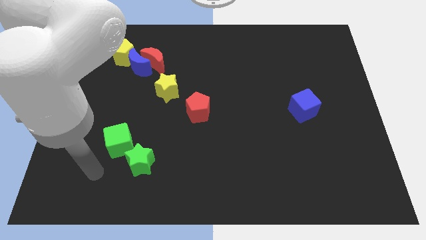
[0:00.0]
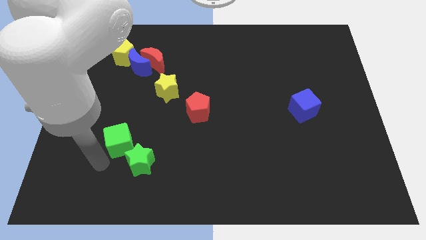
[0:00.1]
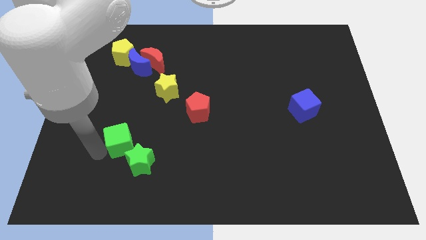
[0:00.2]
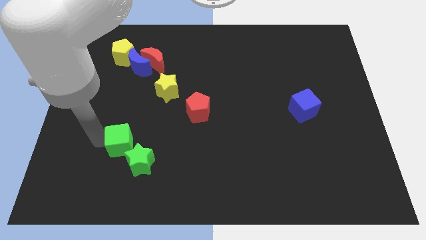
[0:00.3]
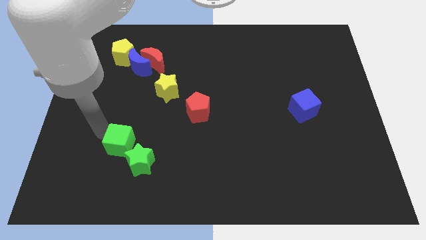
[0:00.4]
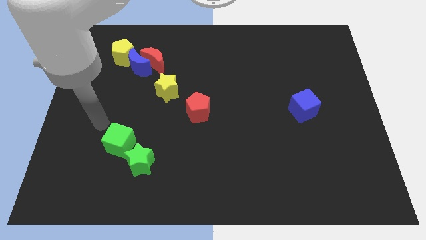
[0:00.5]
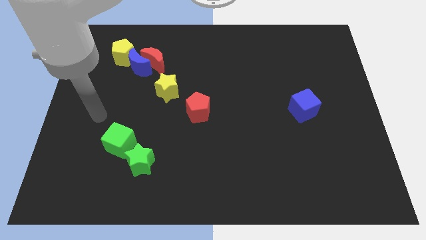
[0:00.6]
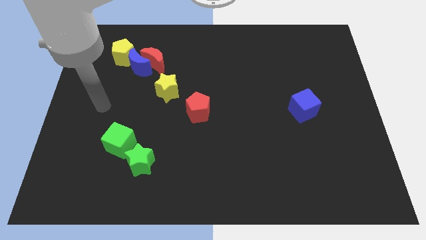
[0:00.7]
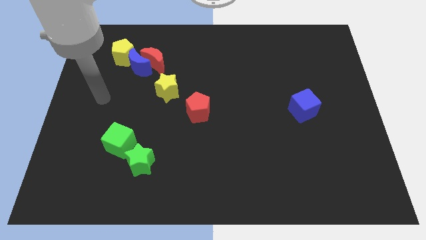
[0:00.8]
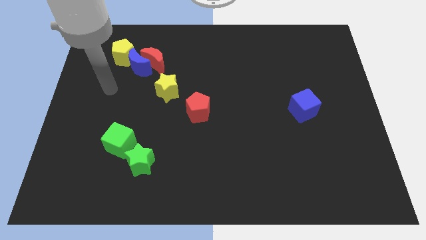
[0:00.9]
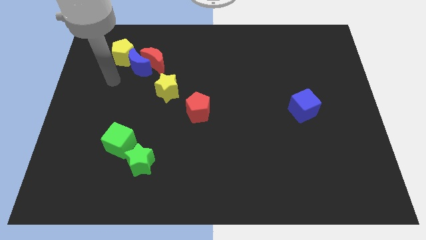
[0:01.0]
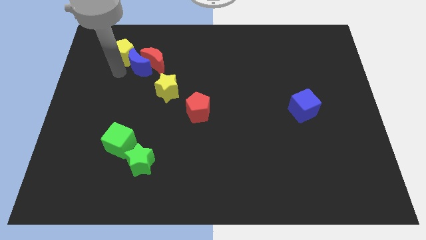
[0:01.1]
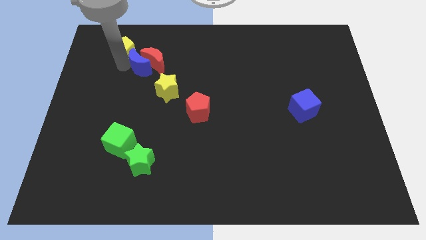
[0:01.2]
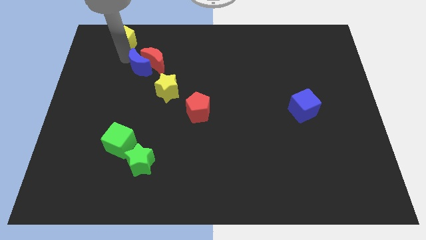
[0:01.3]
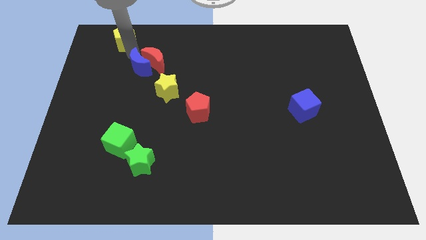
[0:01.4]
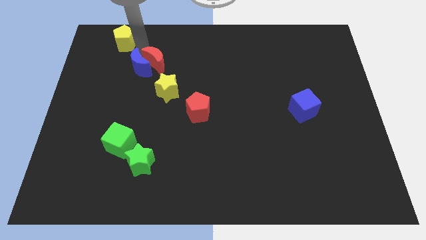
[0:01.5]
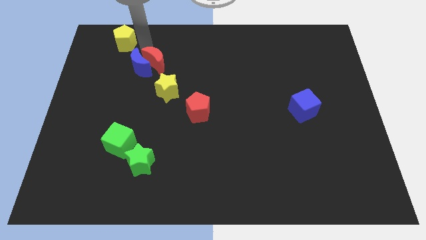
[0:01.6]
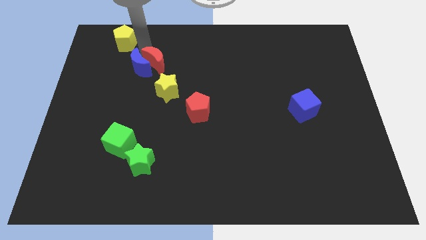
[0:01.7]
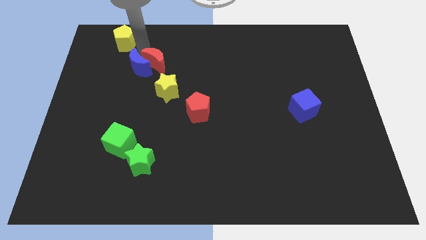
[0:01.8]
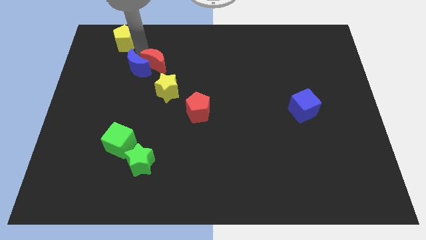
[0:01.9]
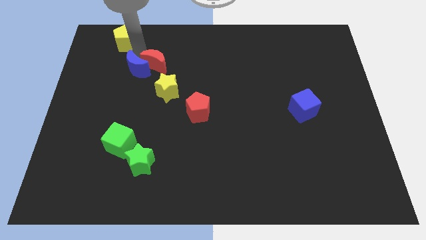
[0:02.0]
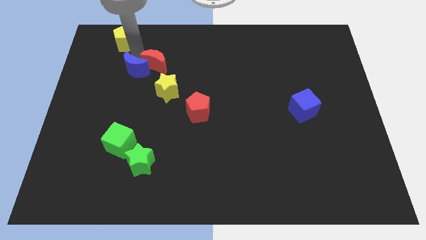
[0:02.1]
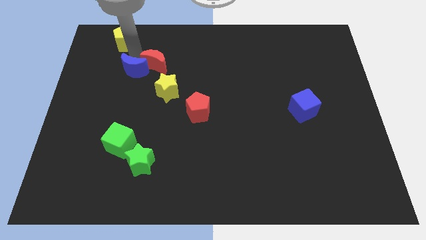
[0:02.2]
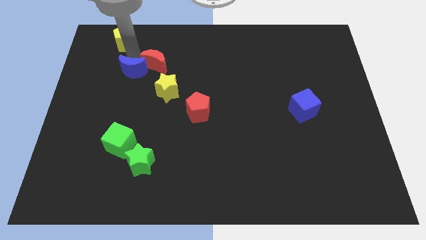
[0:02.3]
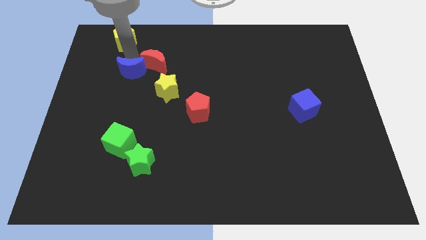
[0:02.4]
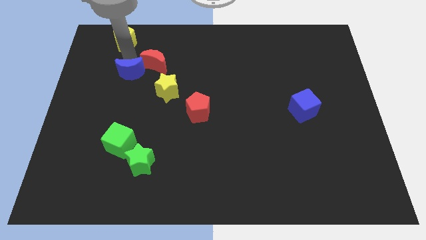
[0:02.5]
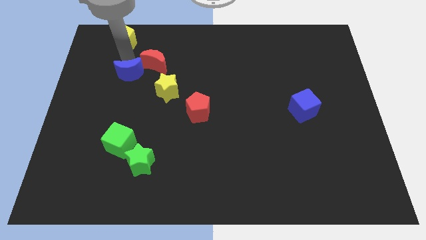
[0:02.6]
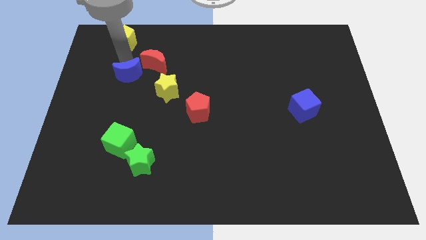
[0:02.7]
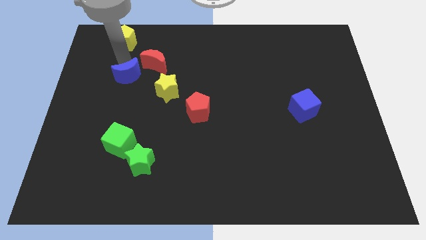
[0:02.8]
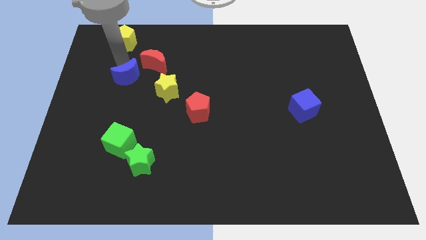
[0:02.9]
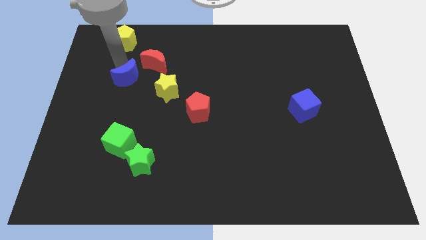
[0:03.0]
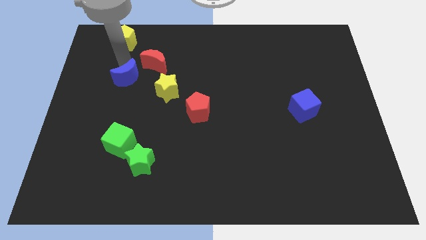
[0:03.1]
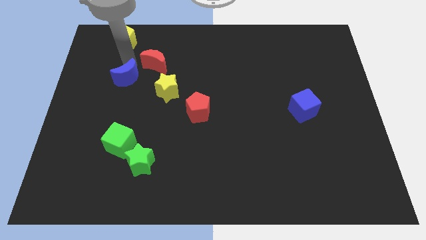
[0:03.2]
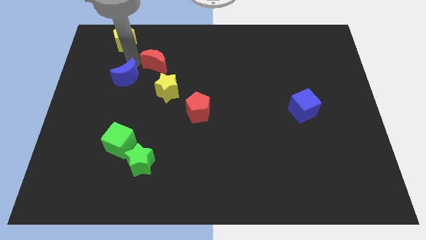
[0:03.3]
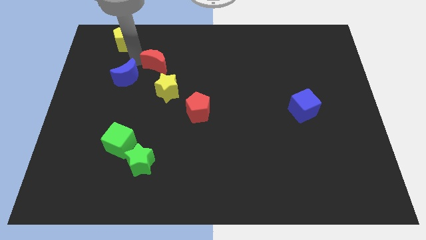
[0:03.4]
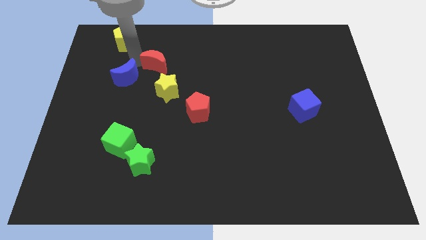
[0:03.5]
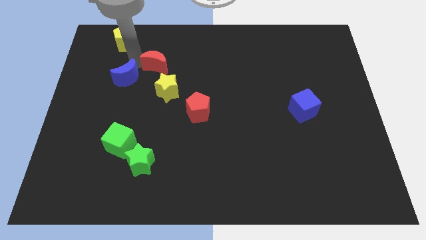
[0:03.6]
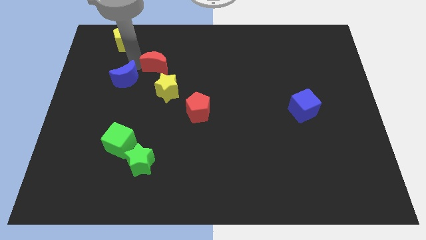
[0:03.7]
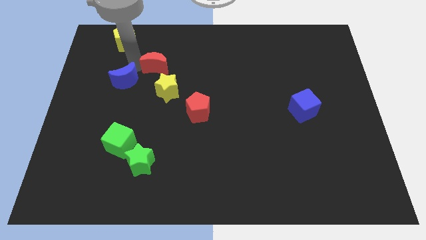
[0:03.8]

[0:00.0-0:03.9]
separate the blue moon from the red moon and yellow pentagon

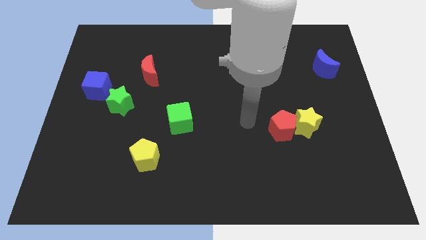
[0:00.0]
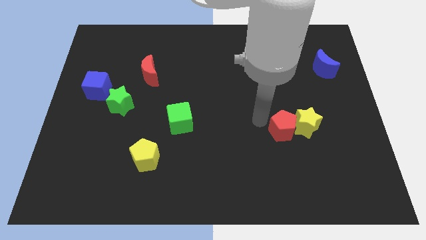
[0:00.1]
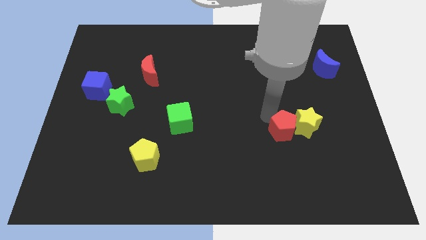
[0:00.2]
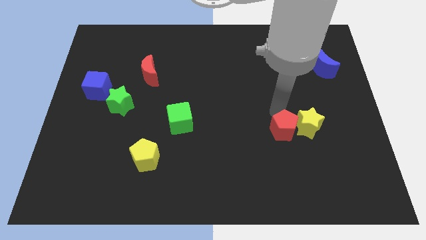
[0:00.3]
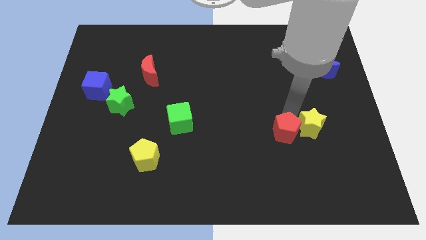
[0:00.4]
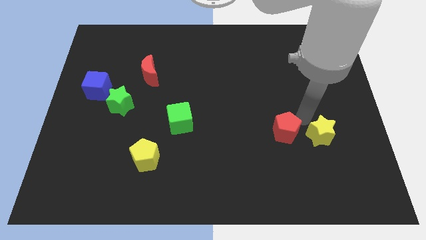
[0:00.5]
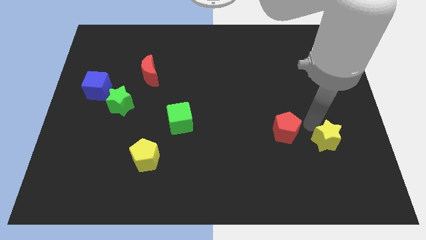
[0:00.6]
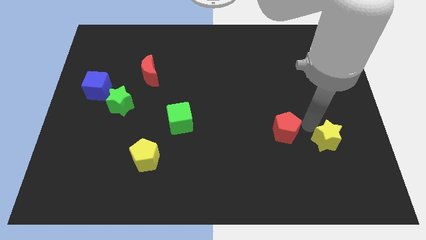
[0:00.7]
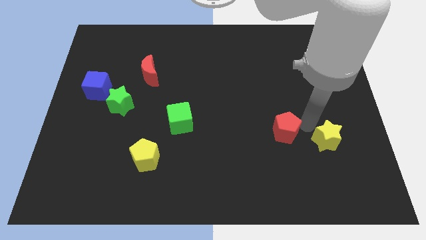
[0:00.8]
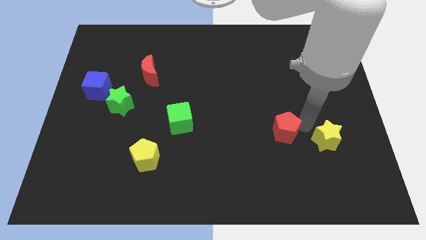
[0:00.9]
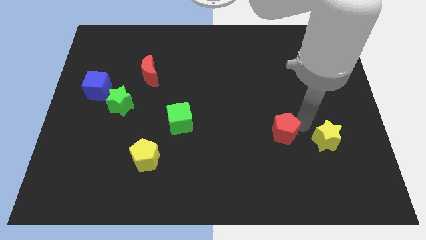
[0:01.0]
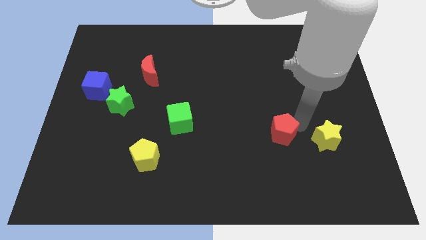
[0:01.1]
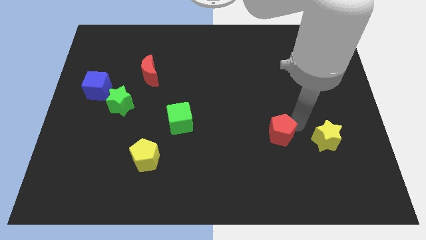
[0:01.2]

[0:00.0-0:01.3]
pull the red pentagon apart from the yellow star

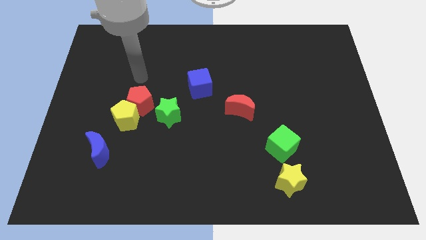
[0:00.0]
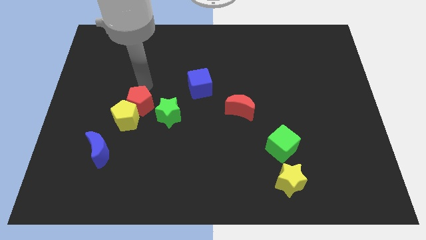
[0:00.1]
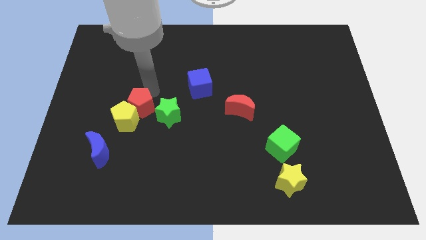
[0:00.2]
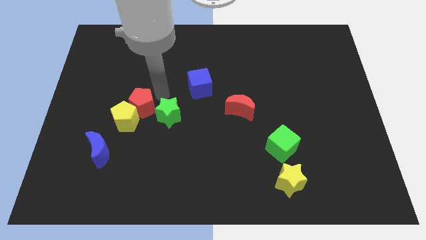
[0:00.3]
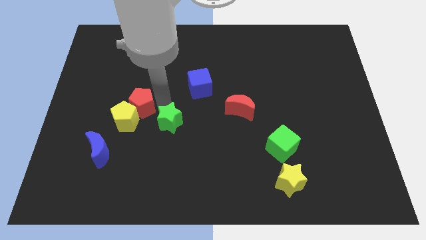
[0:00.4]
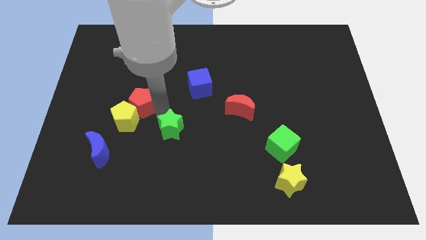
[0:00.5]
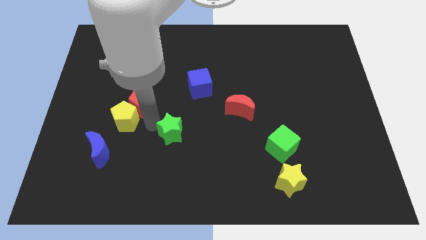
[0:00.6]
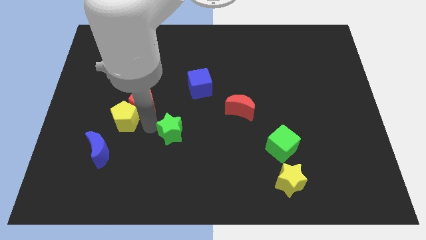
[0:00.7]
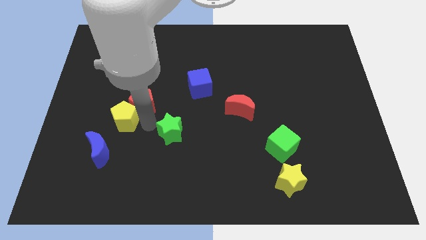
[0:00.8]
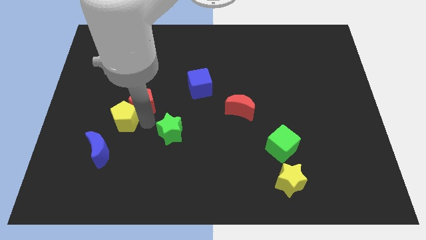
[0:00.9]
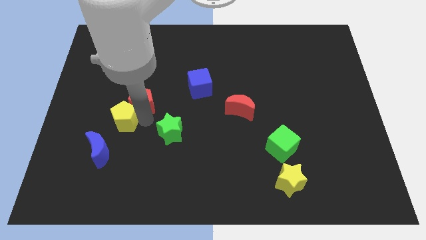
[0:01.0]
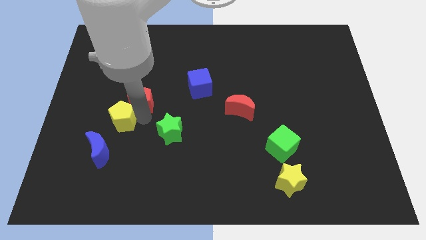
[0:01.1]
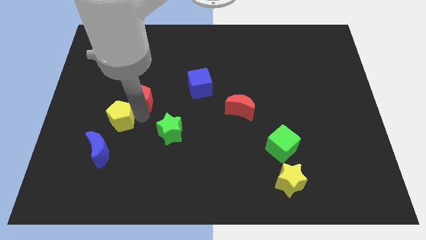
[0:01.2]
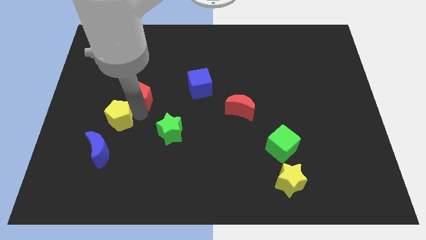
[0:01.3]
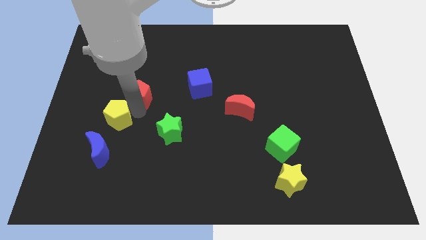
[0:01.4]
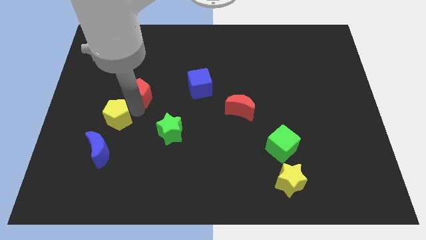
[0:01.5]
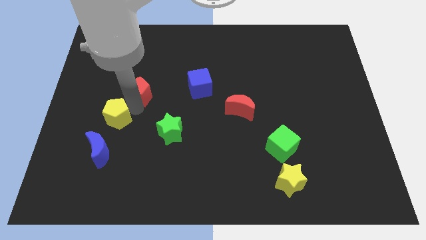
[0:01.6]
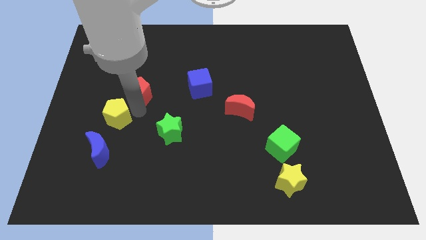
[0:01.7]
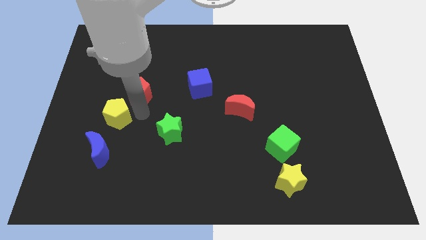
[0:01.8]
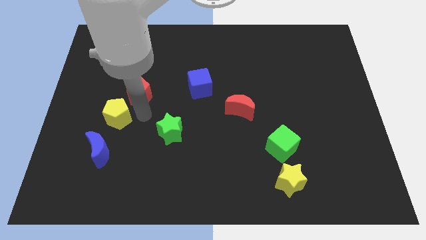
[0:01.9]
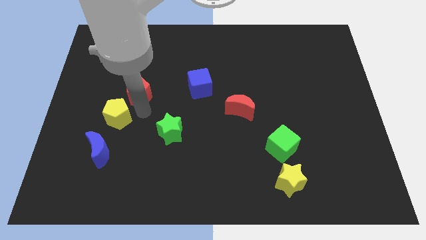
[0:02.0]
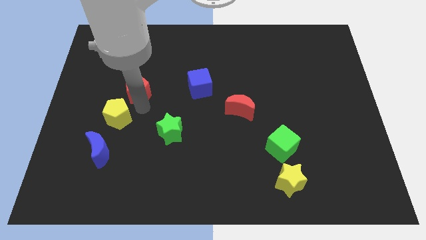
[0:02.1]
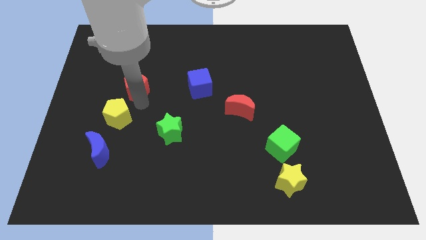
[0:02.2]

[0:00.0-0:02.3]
separate the red pentagon from the yellow pentagon and green star

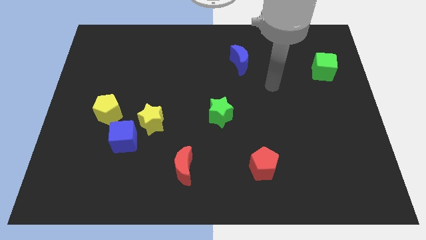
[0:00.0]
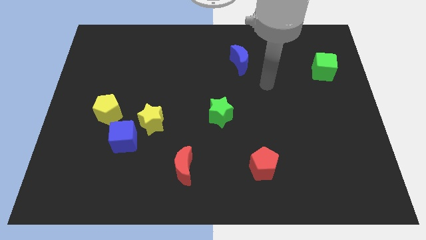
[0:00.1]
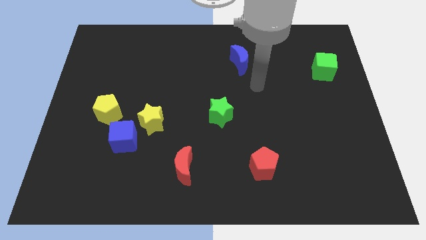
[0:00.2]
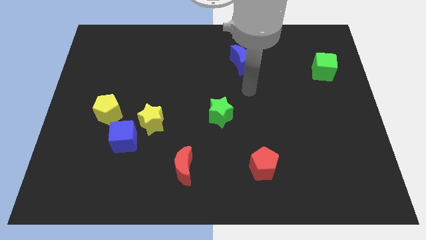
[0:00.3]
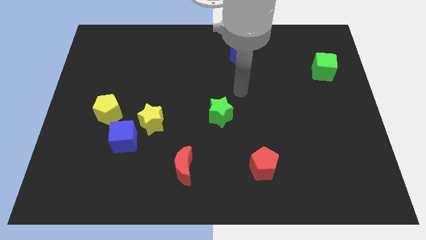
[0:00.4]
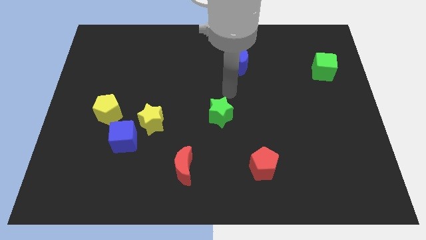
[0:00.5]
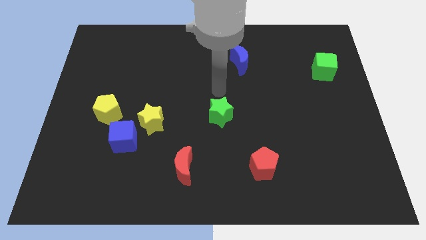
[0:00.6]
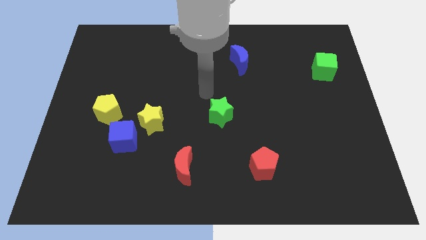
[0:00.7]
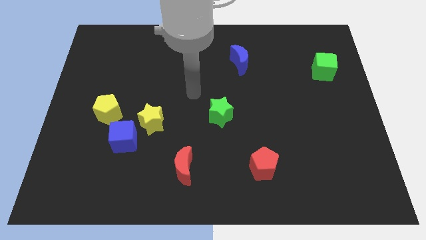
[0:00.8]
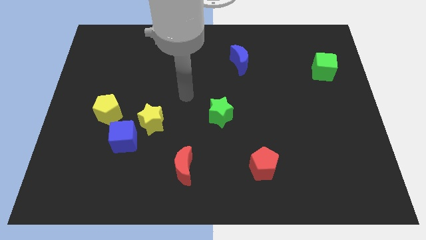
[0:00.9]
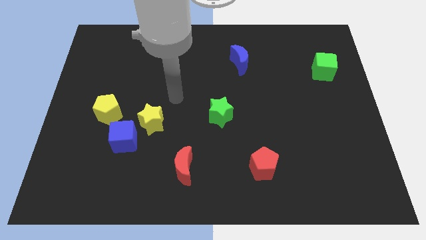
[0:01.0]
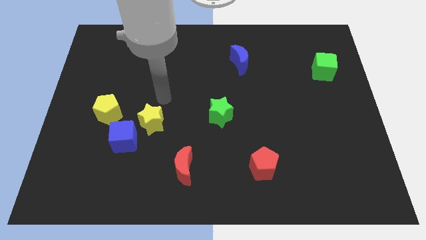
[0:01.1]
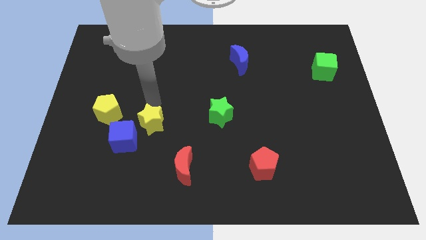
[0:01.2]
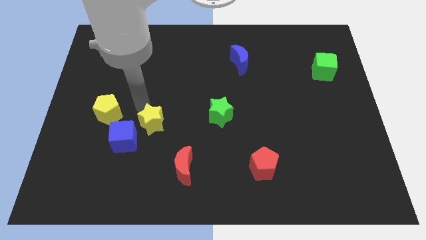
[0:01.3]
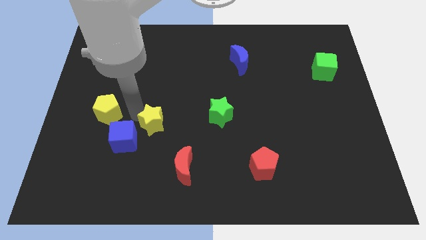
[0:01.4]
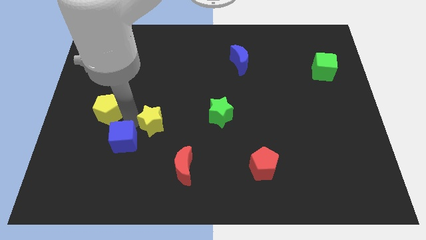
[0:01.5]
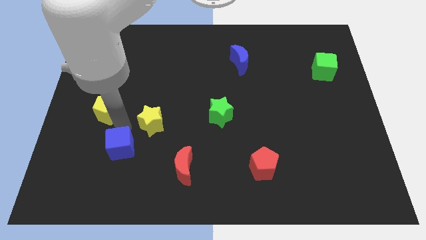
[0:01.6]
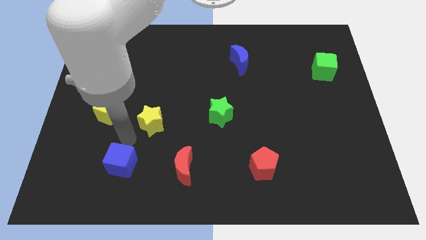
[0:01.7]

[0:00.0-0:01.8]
move the yellow star away from the blue cube
